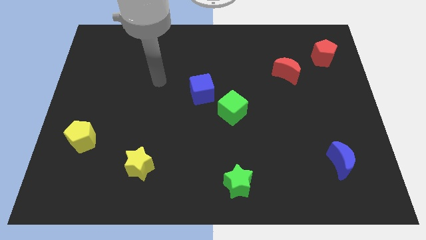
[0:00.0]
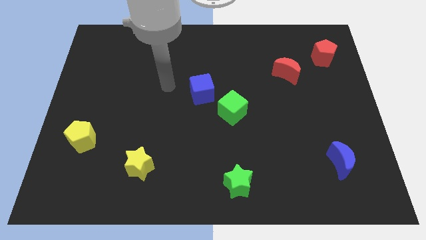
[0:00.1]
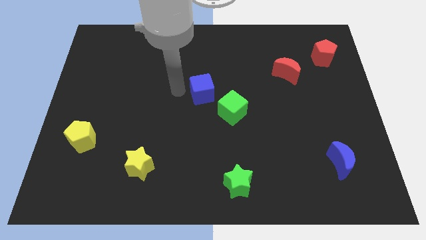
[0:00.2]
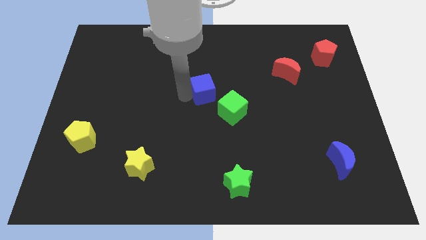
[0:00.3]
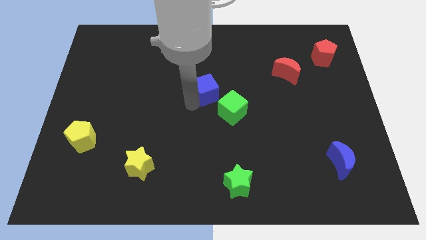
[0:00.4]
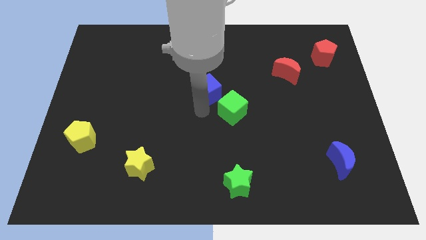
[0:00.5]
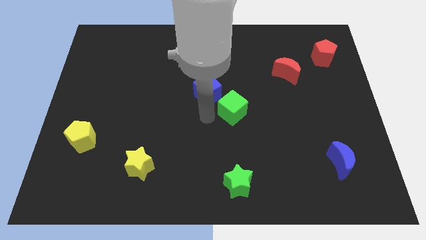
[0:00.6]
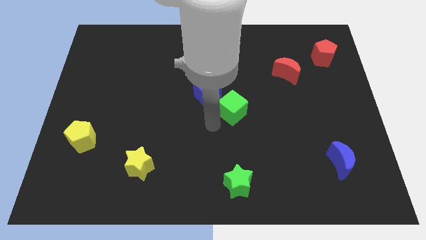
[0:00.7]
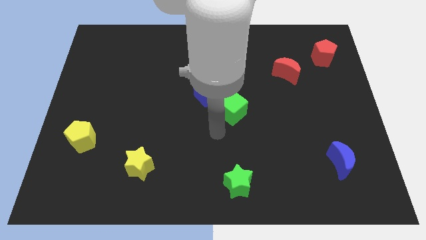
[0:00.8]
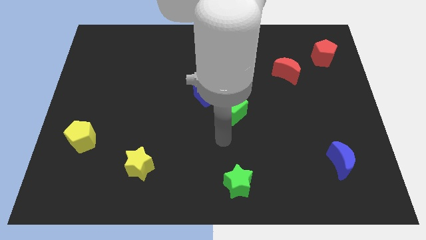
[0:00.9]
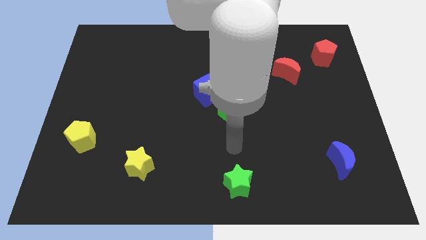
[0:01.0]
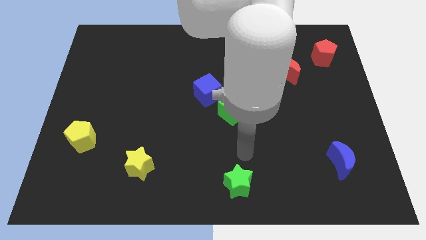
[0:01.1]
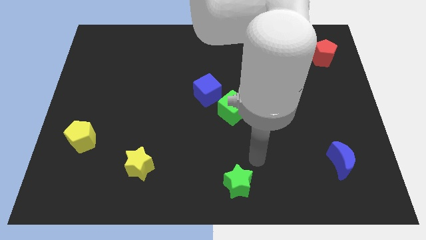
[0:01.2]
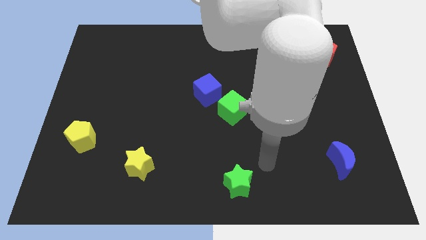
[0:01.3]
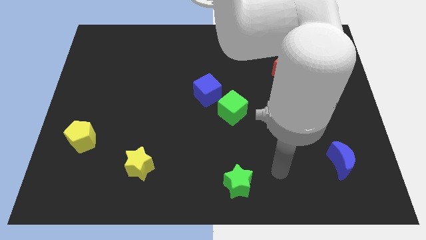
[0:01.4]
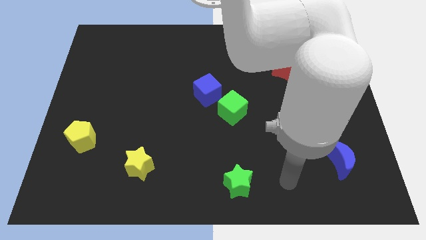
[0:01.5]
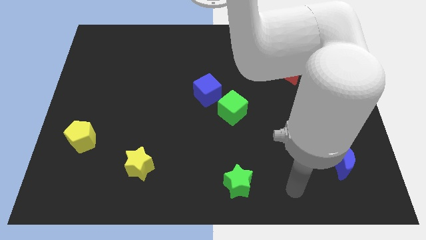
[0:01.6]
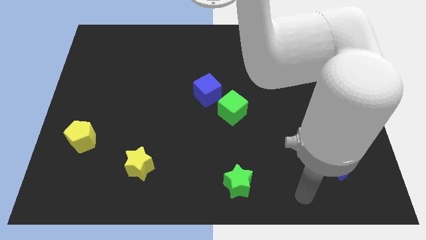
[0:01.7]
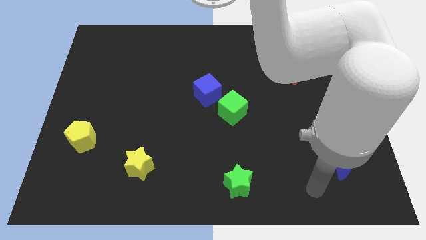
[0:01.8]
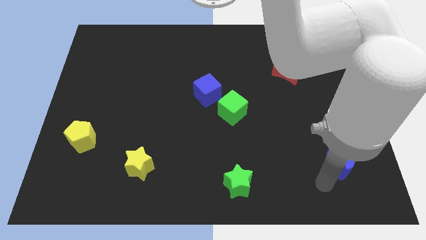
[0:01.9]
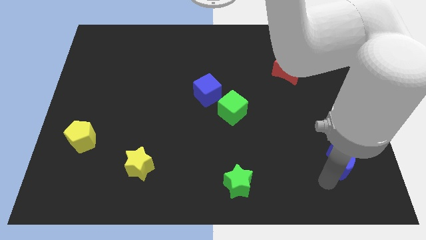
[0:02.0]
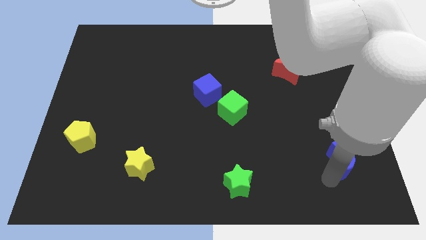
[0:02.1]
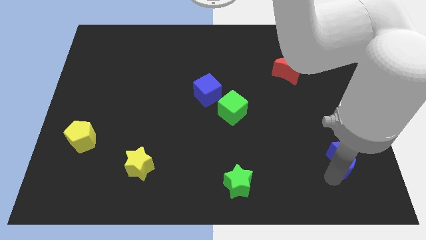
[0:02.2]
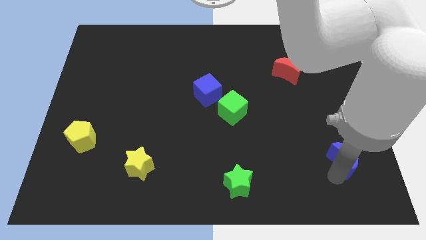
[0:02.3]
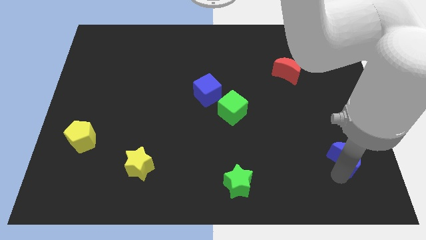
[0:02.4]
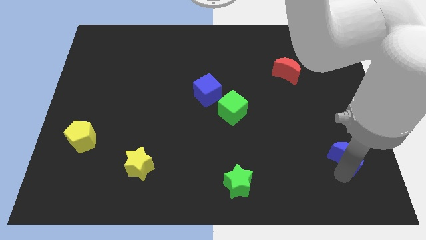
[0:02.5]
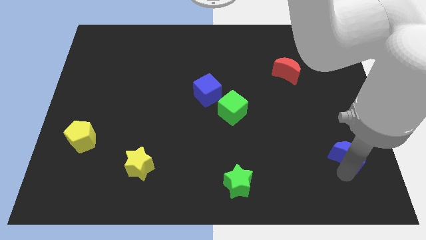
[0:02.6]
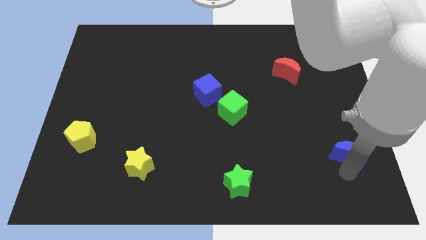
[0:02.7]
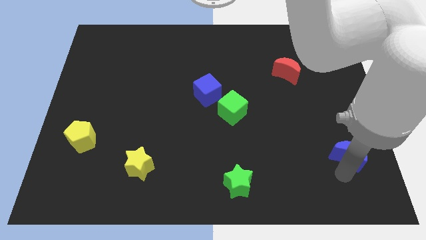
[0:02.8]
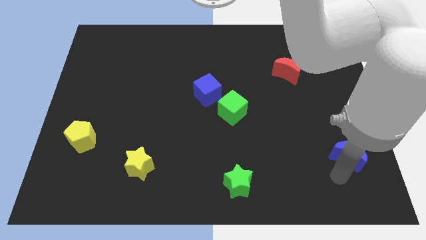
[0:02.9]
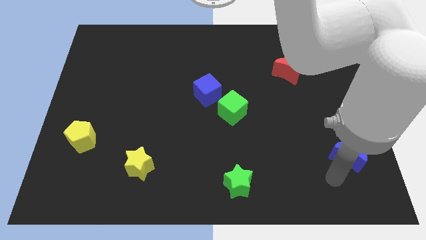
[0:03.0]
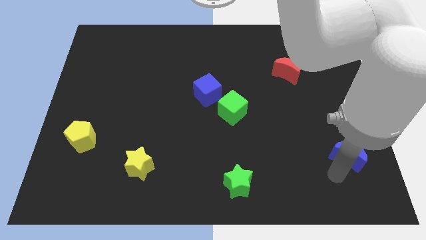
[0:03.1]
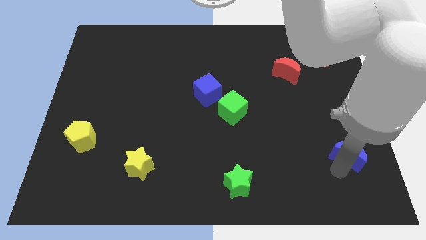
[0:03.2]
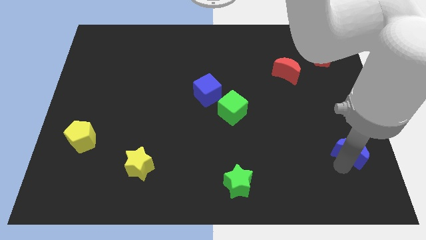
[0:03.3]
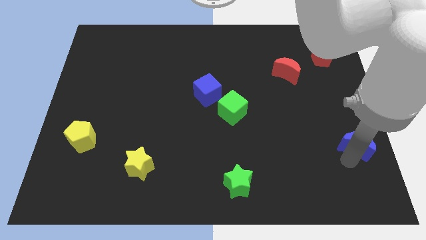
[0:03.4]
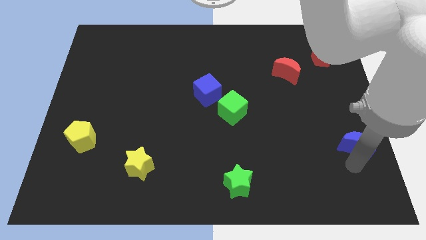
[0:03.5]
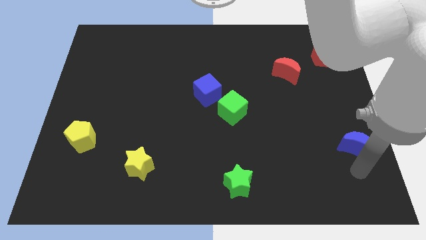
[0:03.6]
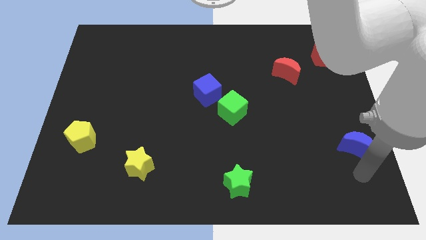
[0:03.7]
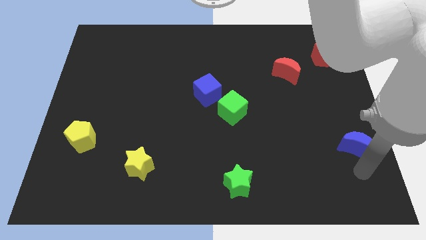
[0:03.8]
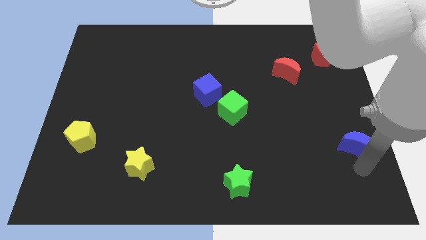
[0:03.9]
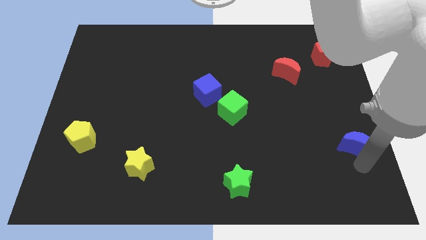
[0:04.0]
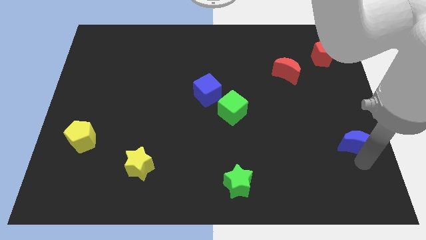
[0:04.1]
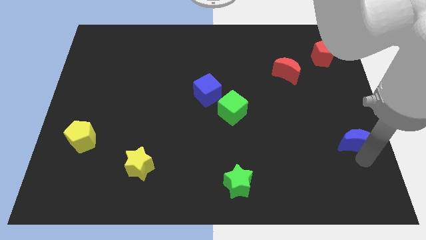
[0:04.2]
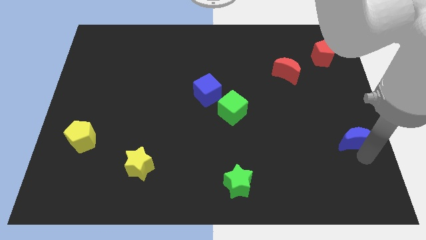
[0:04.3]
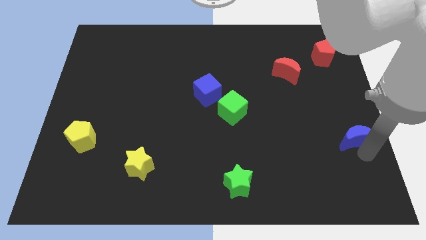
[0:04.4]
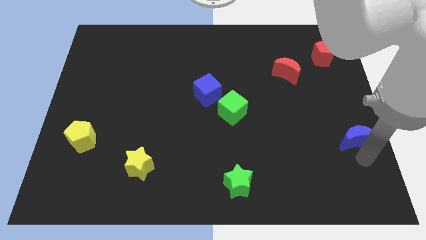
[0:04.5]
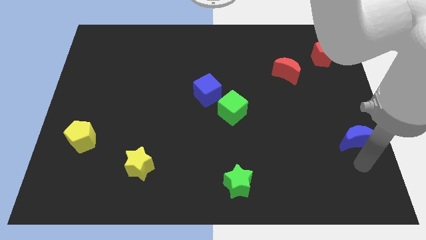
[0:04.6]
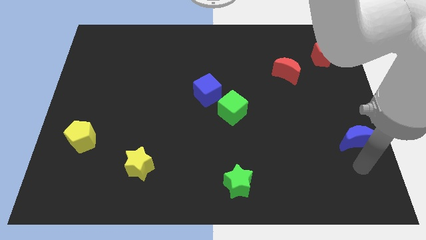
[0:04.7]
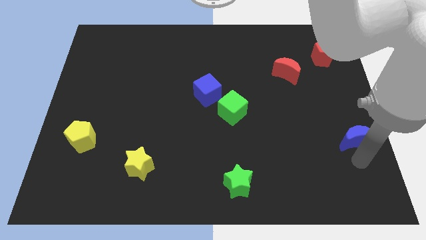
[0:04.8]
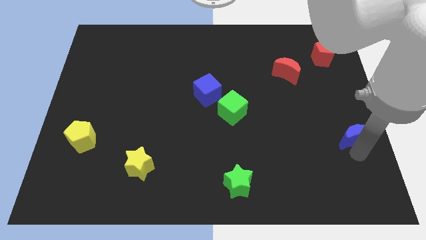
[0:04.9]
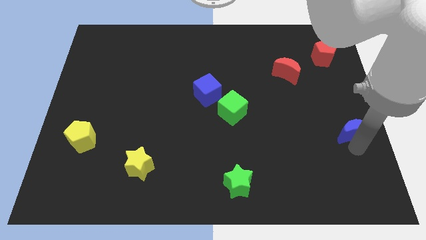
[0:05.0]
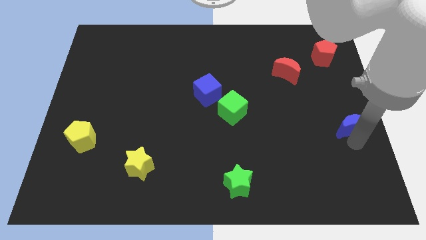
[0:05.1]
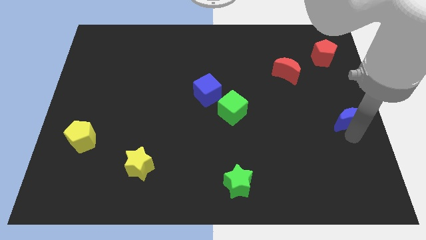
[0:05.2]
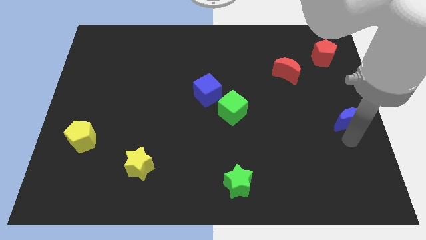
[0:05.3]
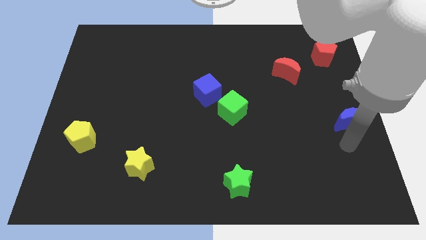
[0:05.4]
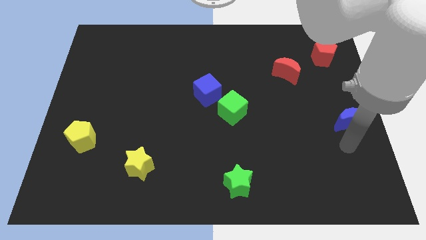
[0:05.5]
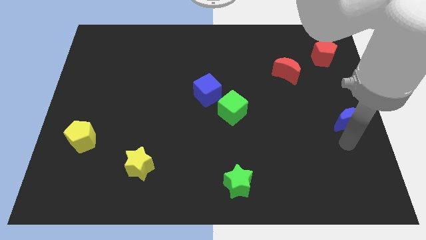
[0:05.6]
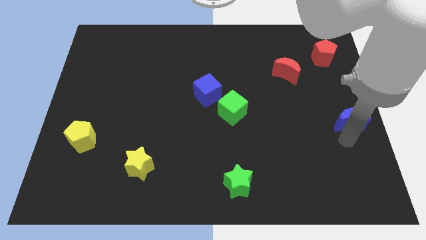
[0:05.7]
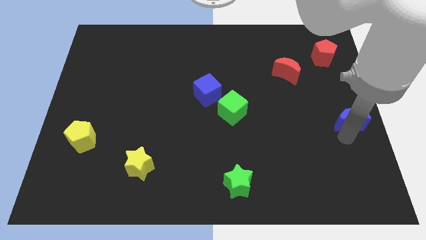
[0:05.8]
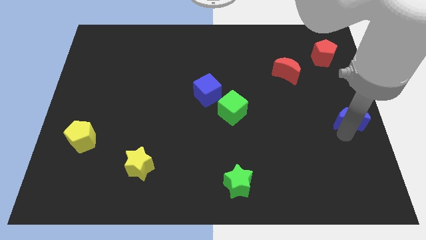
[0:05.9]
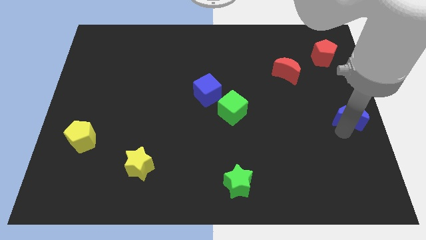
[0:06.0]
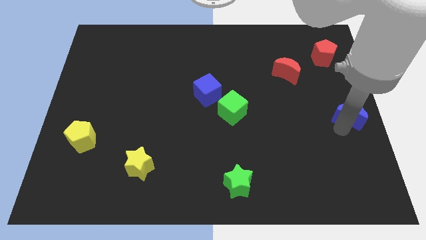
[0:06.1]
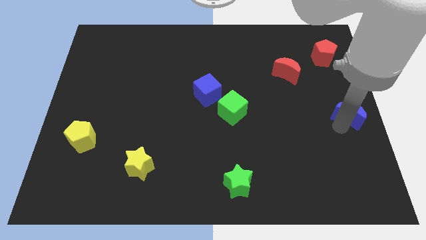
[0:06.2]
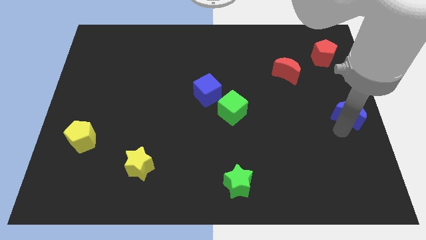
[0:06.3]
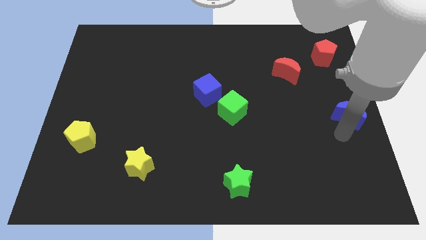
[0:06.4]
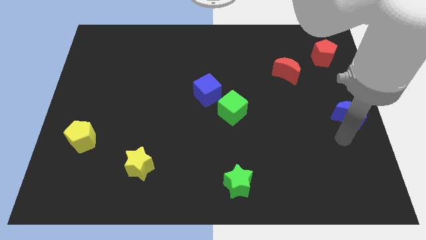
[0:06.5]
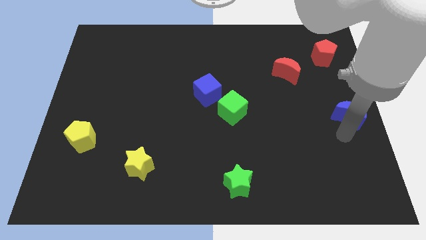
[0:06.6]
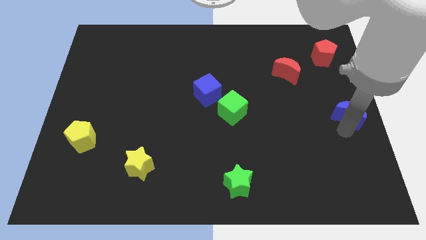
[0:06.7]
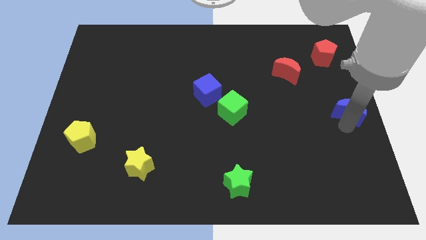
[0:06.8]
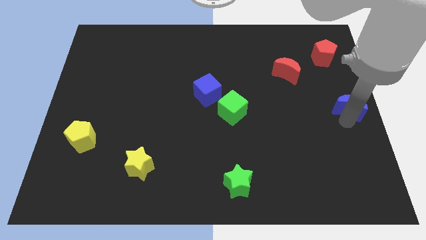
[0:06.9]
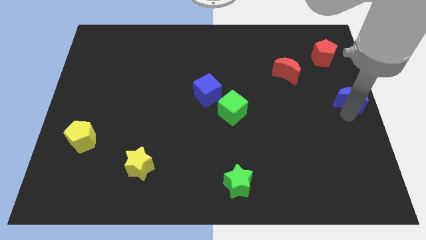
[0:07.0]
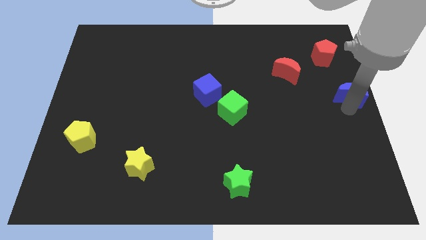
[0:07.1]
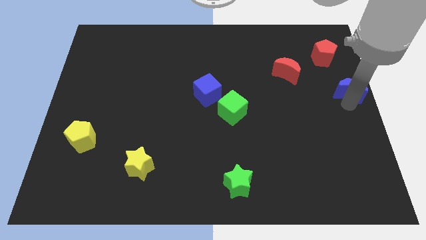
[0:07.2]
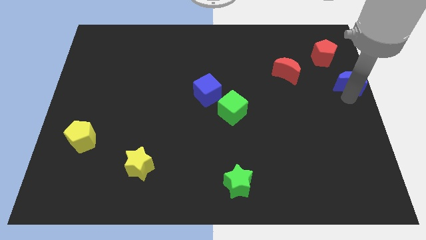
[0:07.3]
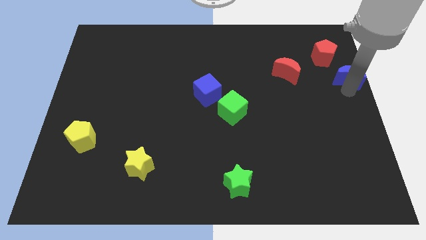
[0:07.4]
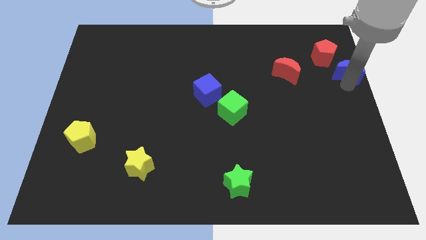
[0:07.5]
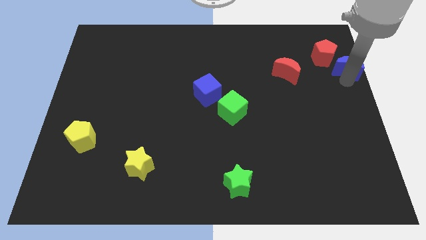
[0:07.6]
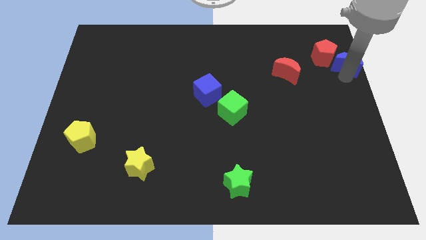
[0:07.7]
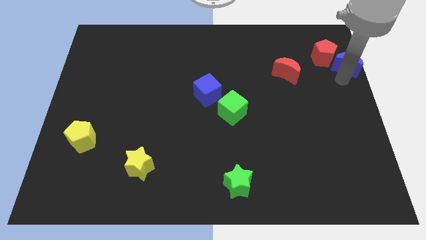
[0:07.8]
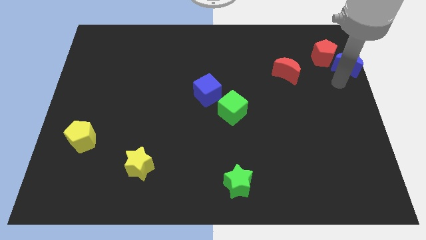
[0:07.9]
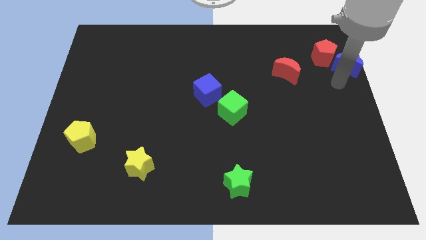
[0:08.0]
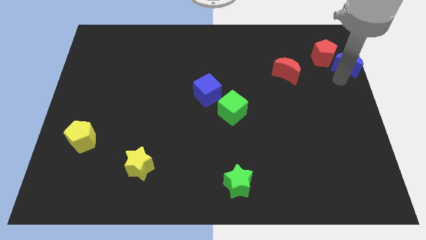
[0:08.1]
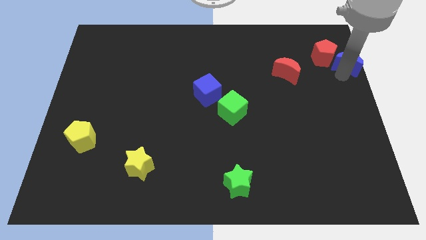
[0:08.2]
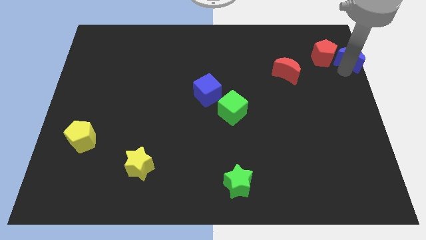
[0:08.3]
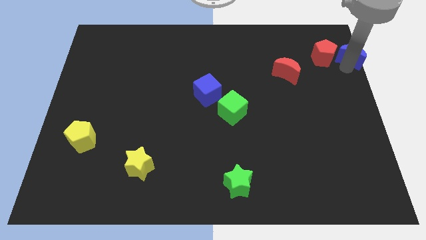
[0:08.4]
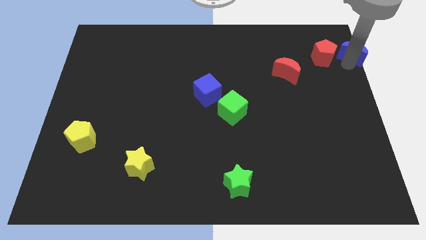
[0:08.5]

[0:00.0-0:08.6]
put the blue moon to the upper right corner
